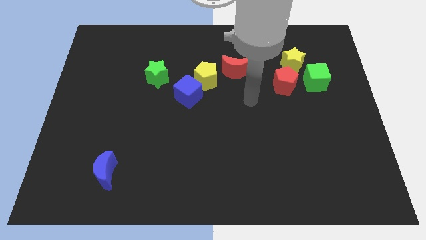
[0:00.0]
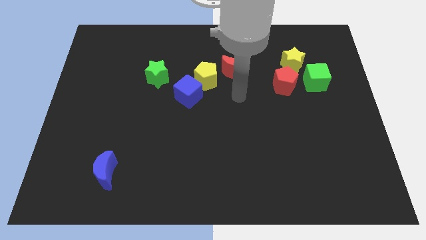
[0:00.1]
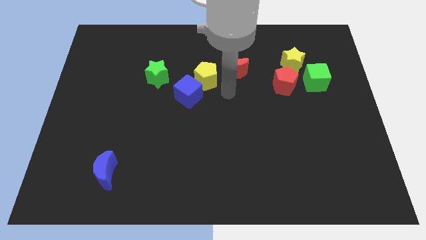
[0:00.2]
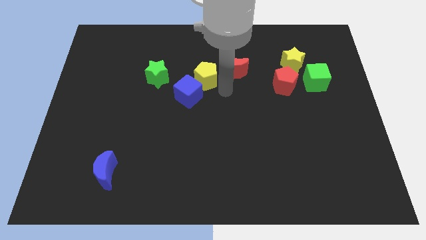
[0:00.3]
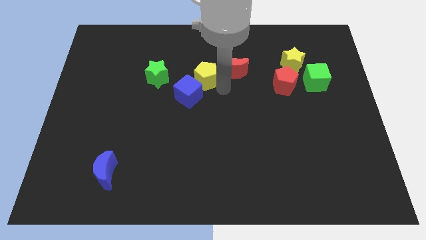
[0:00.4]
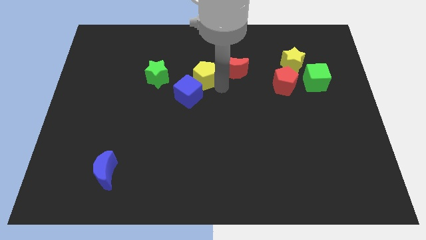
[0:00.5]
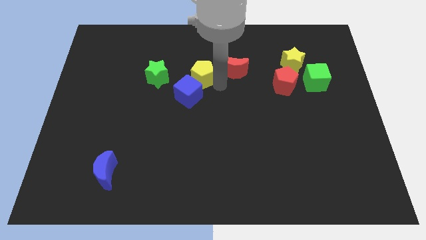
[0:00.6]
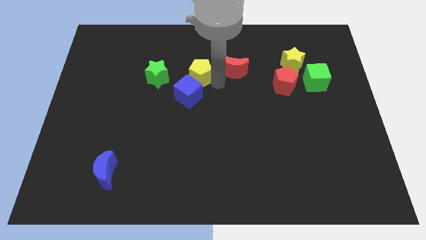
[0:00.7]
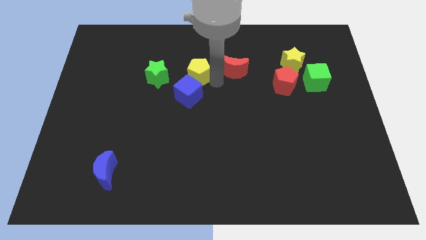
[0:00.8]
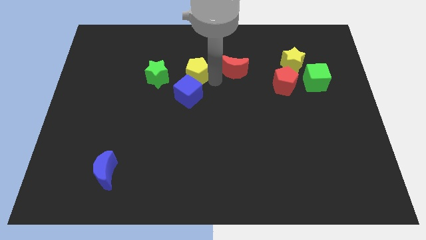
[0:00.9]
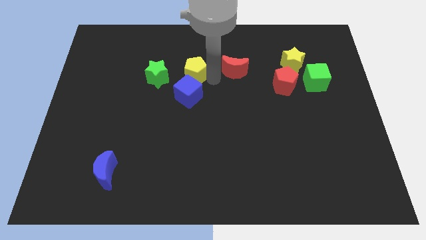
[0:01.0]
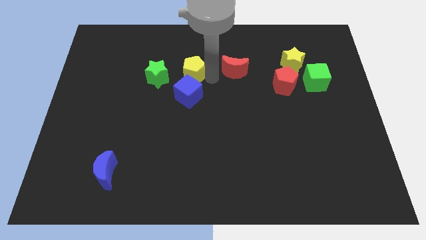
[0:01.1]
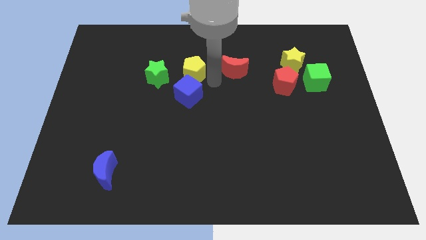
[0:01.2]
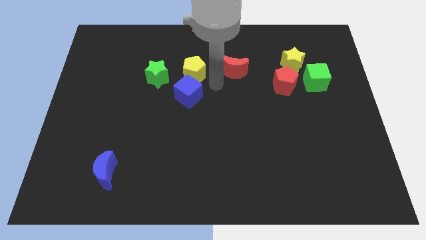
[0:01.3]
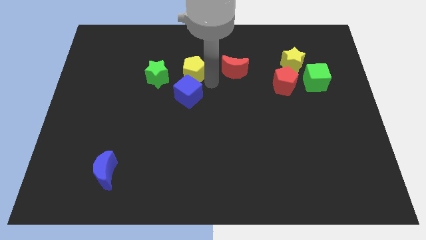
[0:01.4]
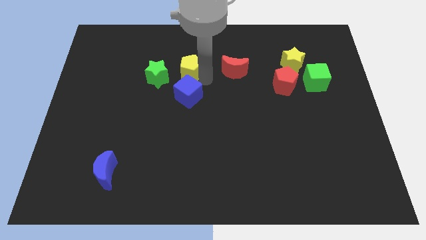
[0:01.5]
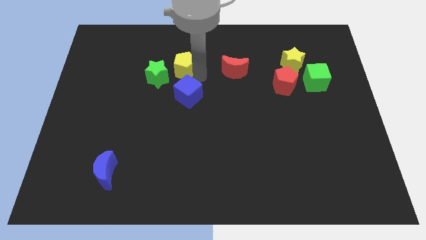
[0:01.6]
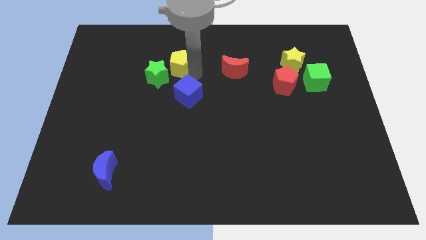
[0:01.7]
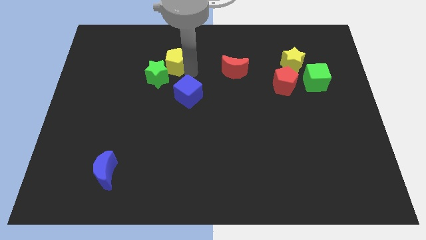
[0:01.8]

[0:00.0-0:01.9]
pull the yellow pentagon apart from the blue cube and red moon

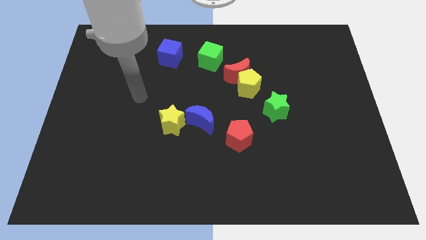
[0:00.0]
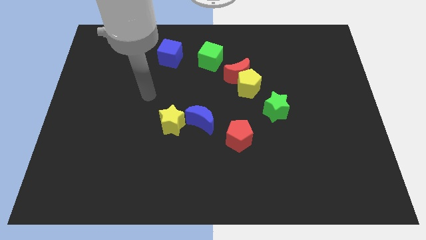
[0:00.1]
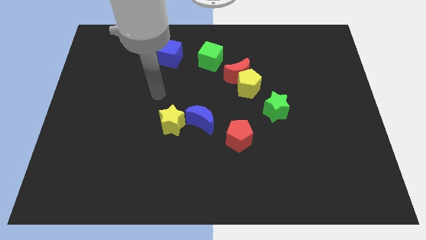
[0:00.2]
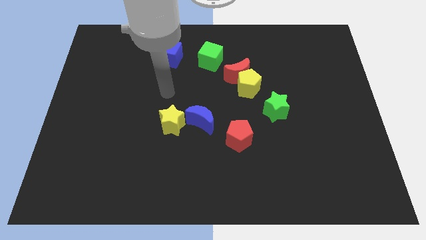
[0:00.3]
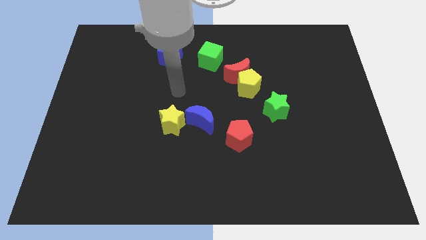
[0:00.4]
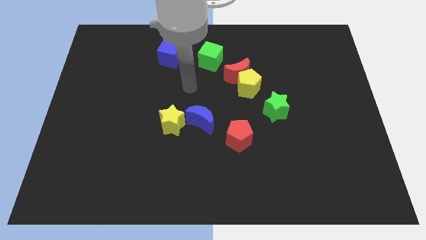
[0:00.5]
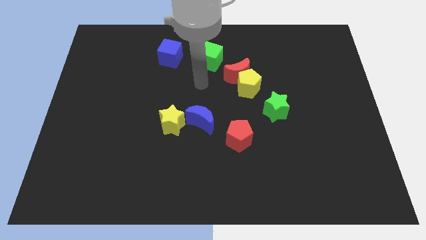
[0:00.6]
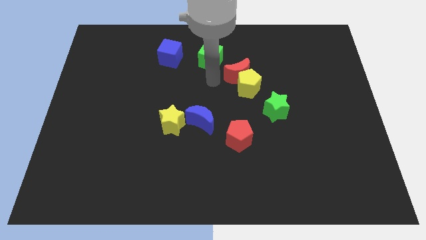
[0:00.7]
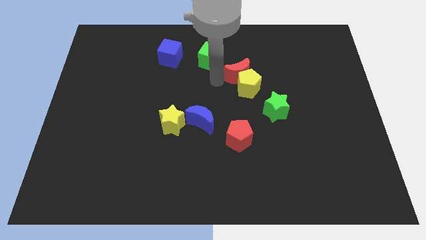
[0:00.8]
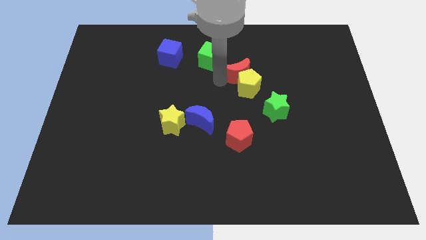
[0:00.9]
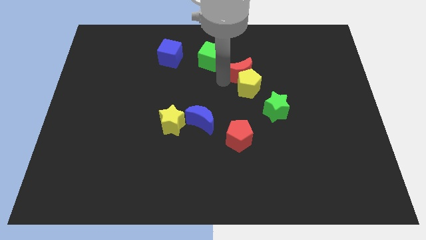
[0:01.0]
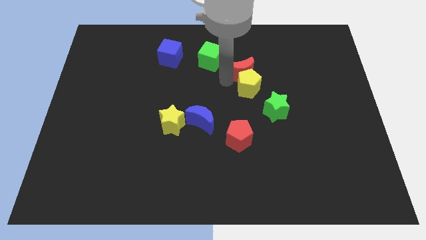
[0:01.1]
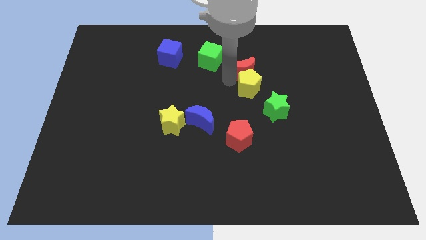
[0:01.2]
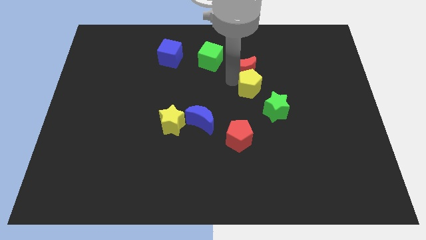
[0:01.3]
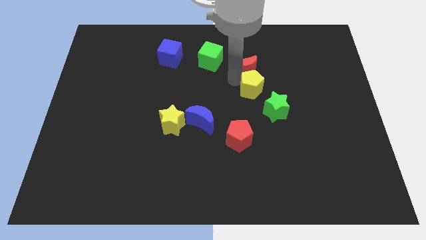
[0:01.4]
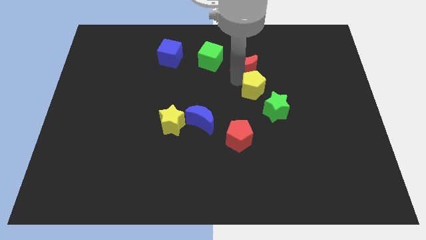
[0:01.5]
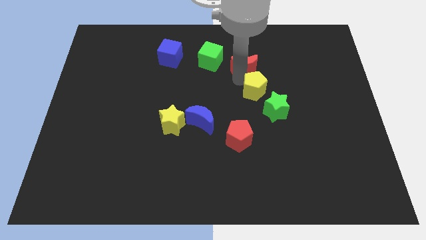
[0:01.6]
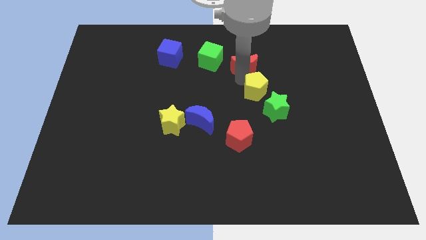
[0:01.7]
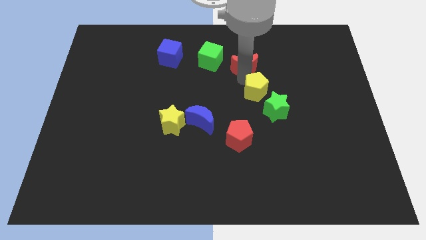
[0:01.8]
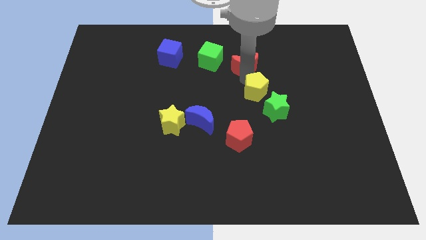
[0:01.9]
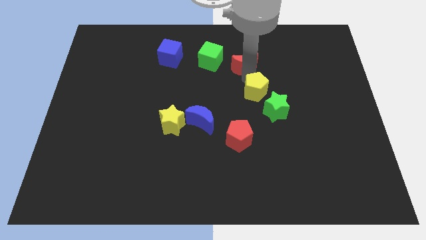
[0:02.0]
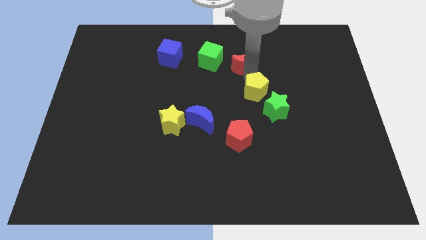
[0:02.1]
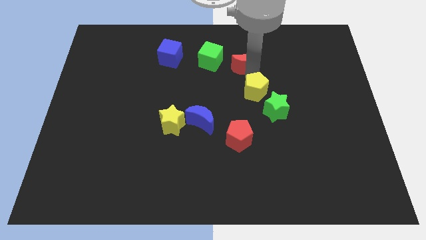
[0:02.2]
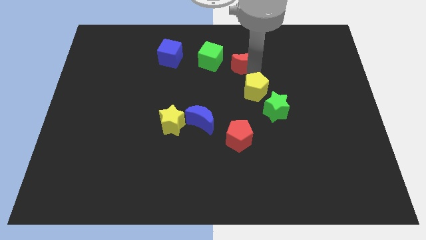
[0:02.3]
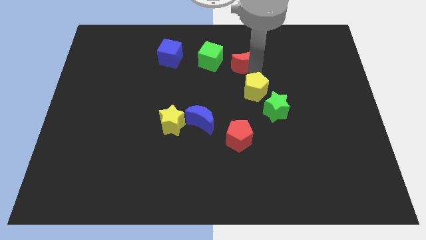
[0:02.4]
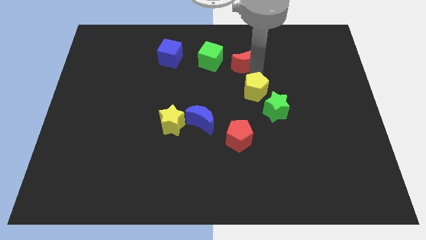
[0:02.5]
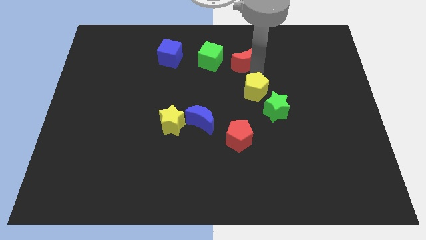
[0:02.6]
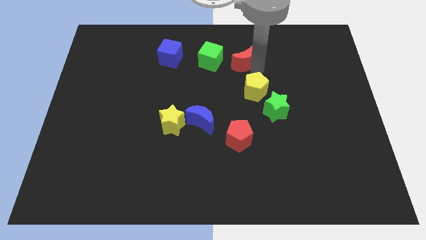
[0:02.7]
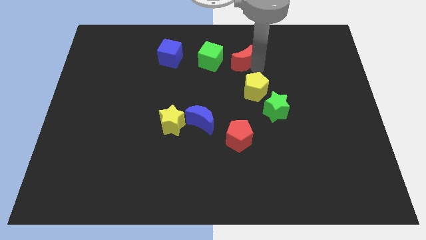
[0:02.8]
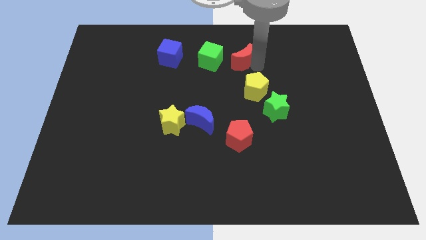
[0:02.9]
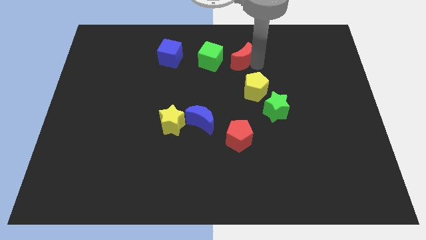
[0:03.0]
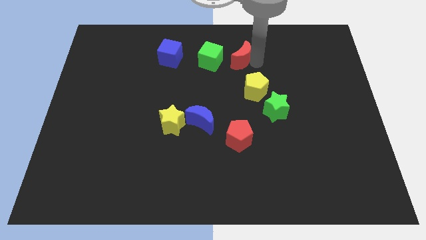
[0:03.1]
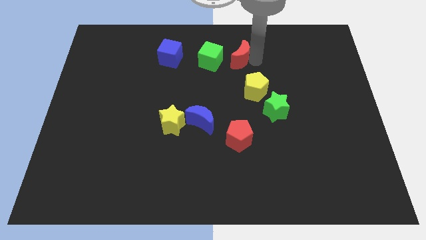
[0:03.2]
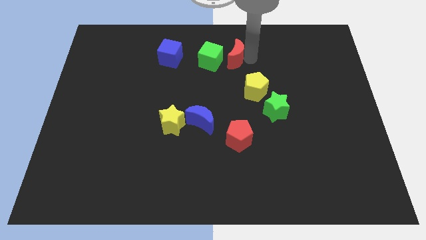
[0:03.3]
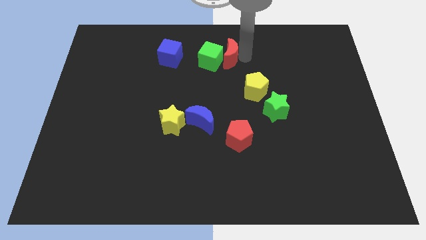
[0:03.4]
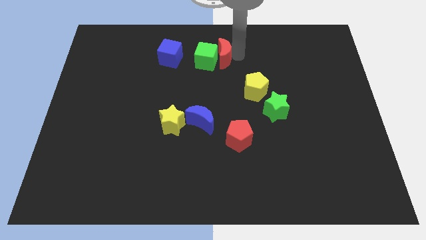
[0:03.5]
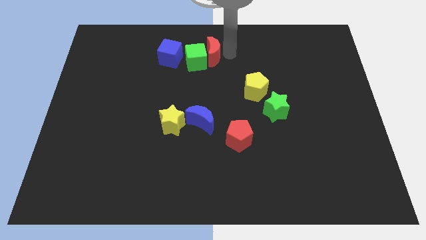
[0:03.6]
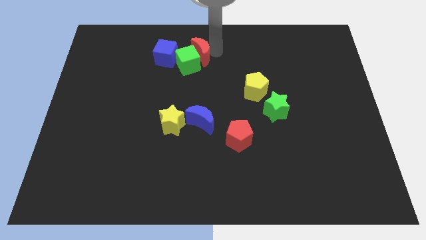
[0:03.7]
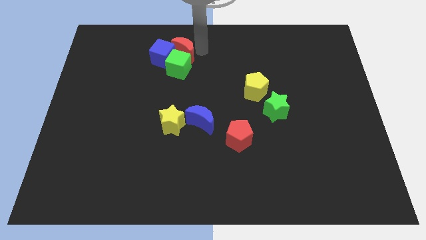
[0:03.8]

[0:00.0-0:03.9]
pull the red moon apart from the yellow pentagon and green cube

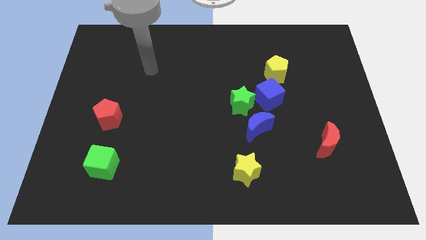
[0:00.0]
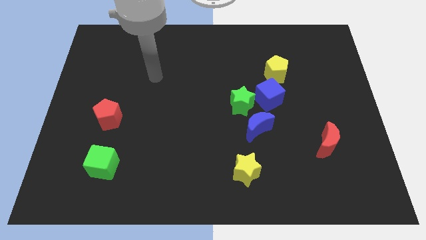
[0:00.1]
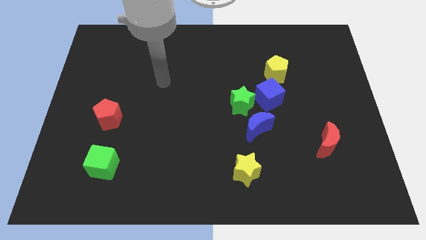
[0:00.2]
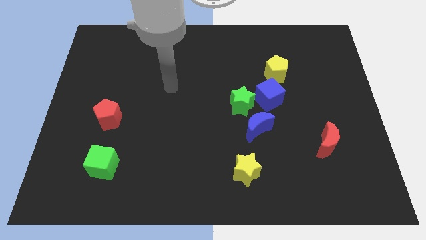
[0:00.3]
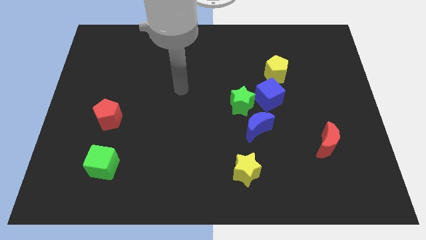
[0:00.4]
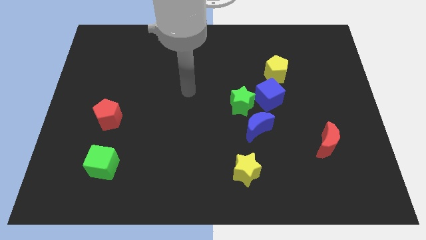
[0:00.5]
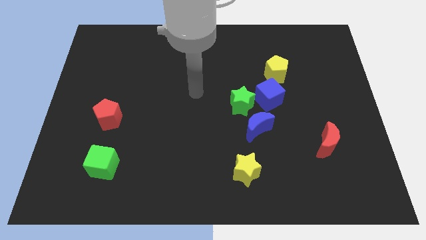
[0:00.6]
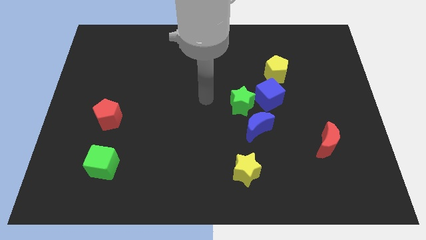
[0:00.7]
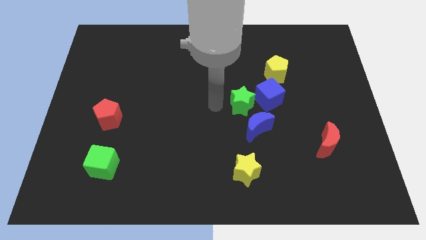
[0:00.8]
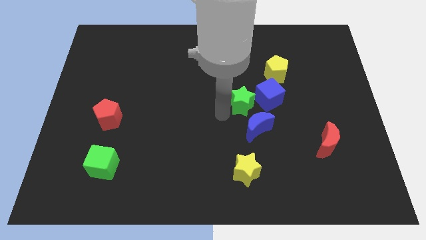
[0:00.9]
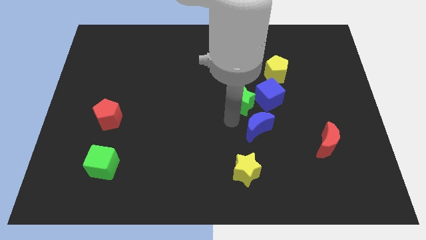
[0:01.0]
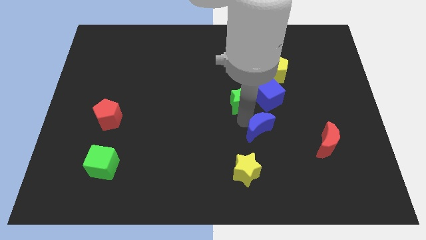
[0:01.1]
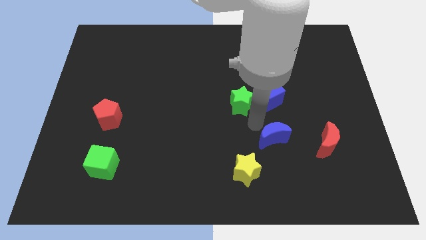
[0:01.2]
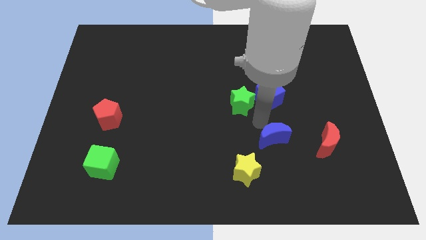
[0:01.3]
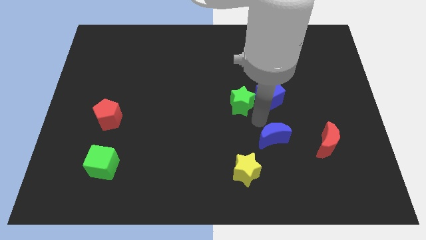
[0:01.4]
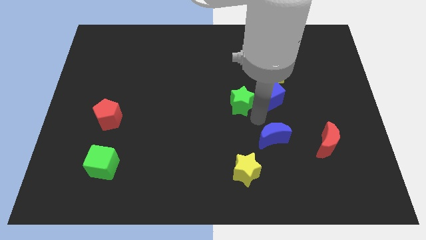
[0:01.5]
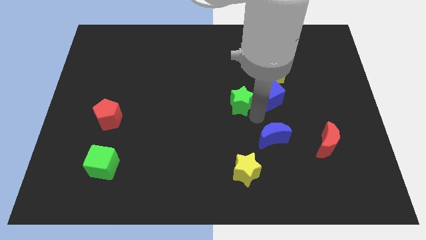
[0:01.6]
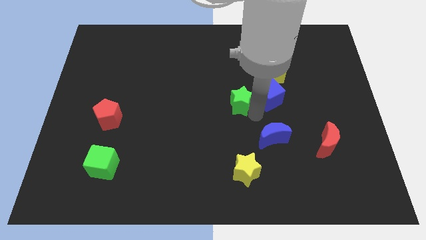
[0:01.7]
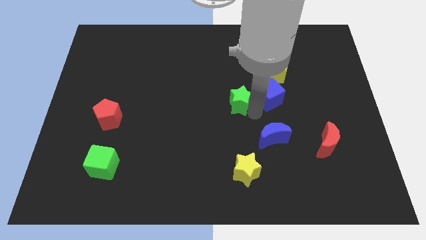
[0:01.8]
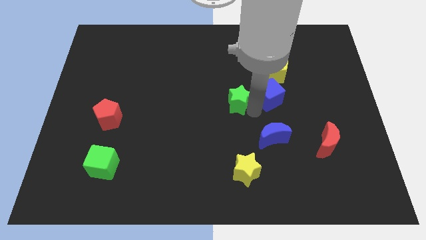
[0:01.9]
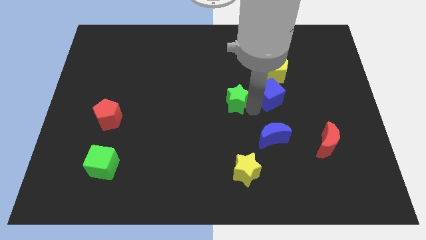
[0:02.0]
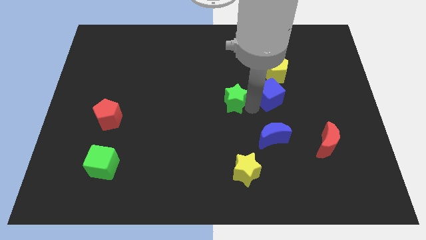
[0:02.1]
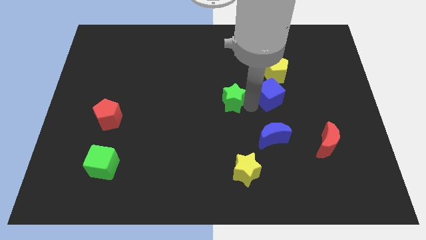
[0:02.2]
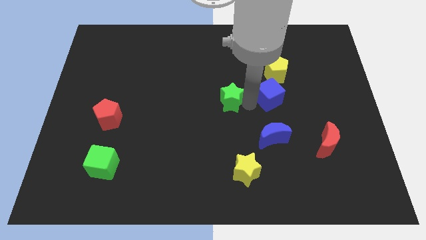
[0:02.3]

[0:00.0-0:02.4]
separate the green star from the blue cube and blue moon

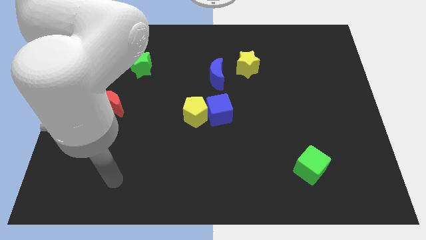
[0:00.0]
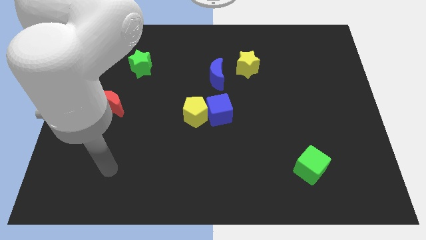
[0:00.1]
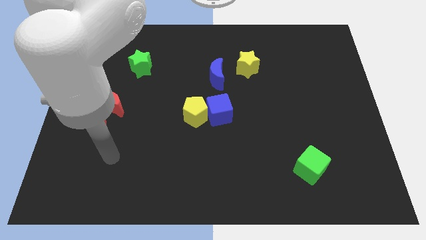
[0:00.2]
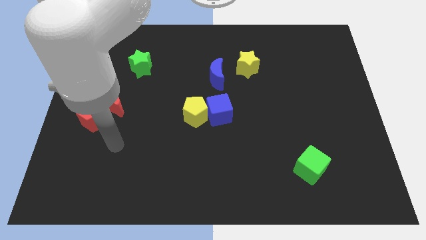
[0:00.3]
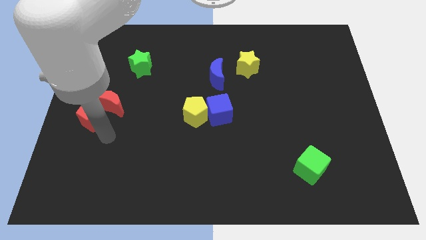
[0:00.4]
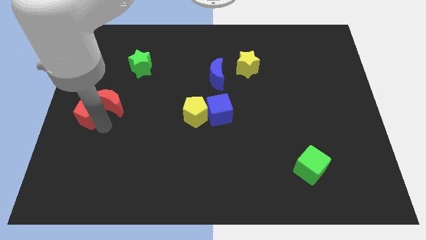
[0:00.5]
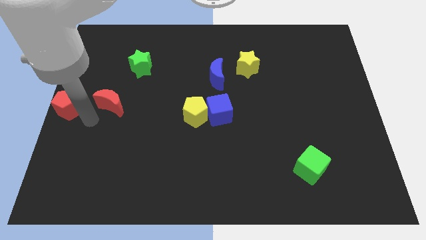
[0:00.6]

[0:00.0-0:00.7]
move the red moon away from the red pentagon

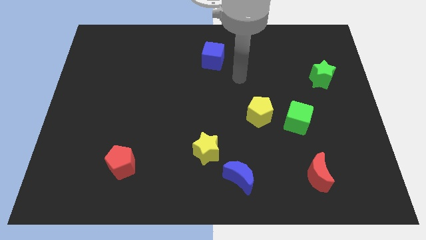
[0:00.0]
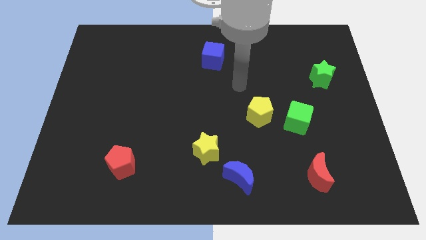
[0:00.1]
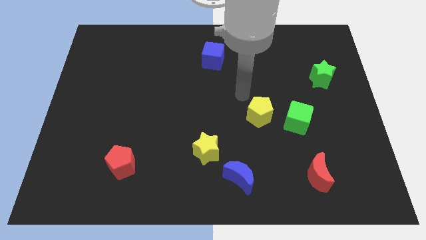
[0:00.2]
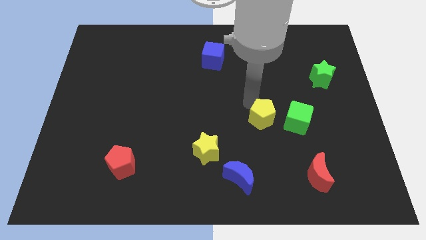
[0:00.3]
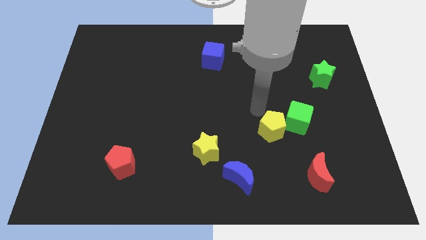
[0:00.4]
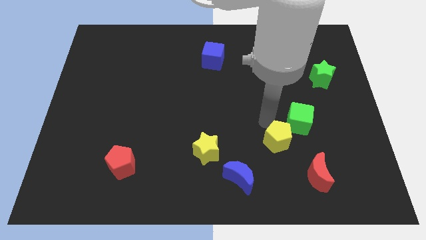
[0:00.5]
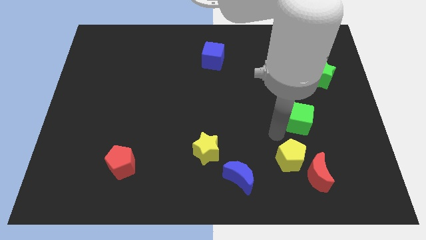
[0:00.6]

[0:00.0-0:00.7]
pull the green cube apart from the yellow pentagon
